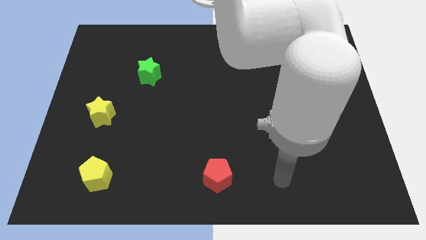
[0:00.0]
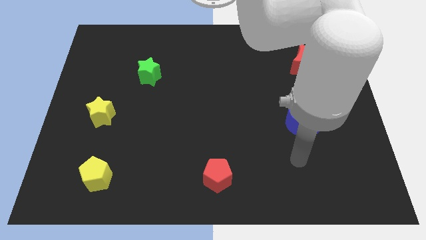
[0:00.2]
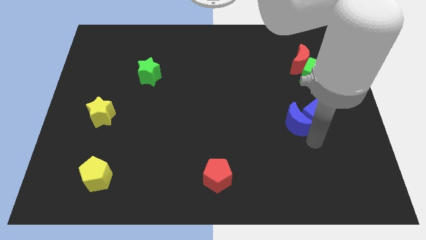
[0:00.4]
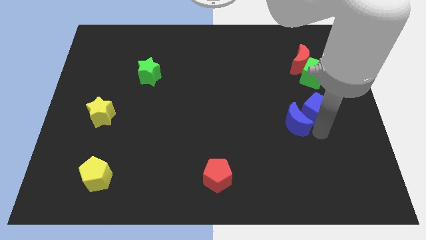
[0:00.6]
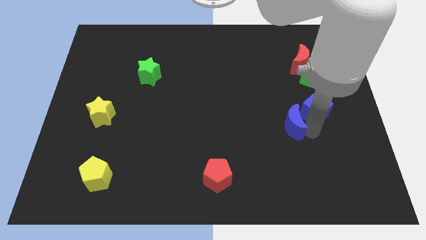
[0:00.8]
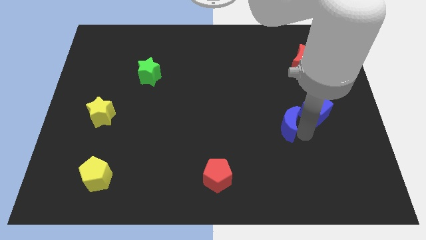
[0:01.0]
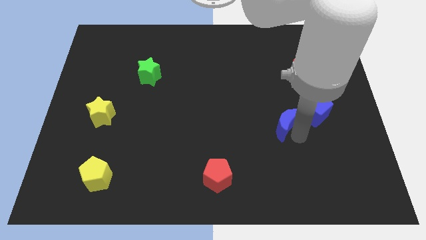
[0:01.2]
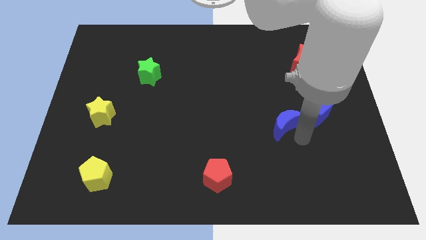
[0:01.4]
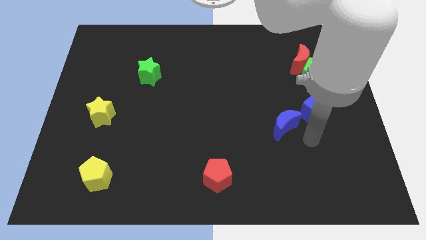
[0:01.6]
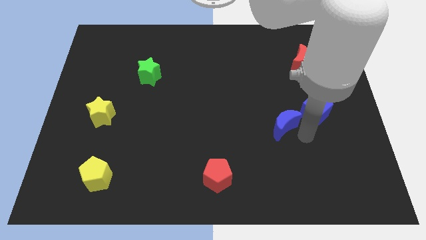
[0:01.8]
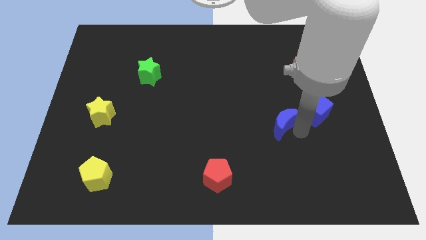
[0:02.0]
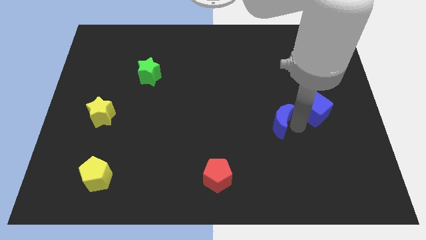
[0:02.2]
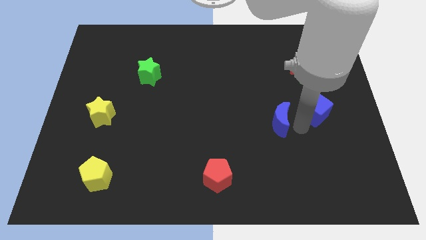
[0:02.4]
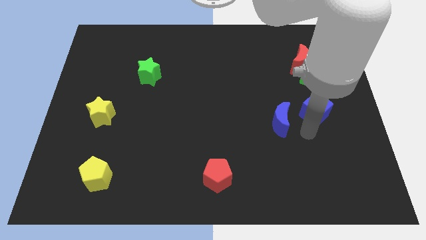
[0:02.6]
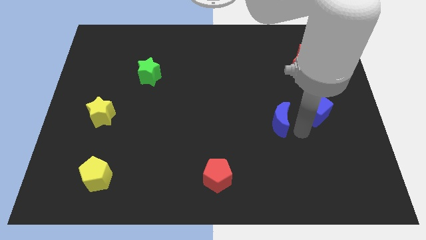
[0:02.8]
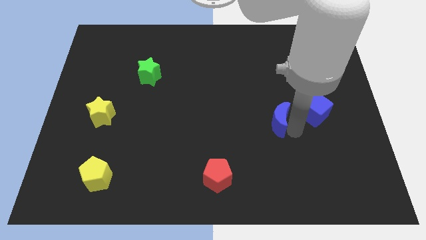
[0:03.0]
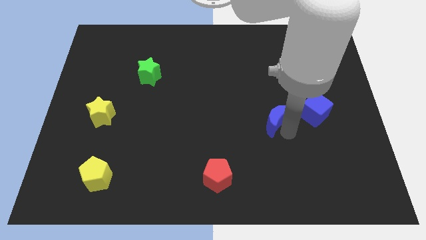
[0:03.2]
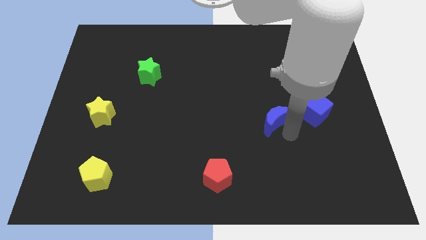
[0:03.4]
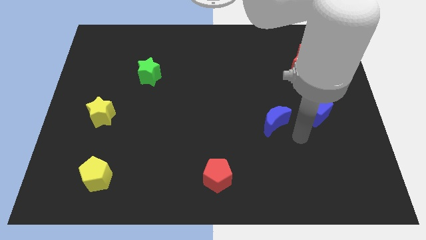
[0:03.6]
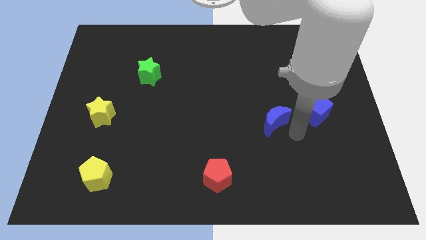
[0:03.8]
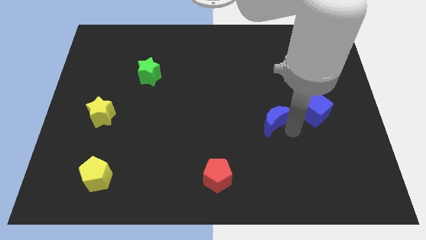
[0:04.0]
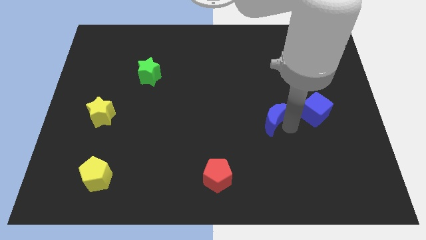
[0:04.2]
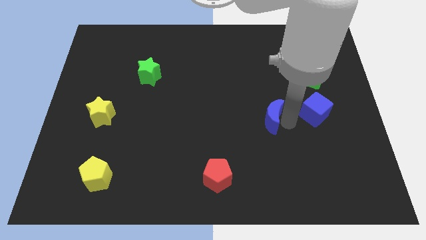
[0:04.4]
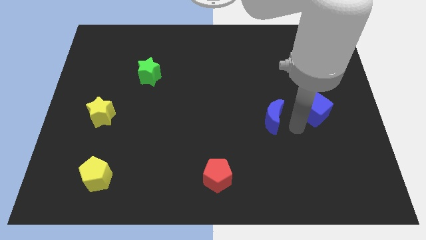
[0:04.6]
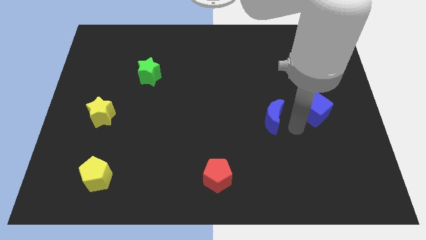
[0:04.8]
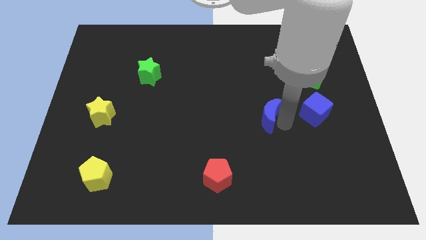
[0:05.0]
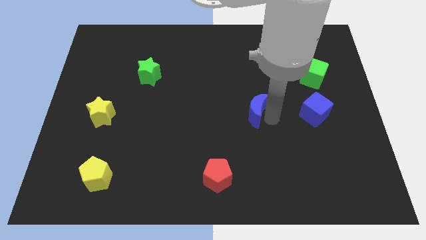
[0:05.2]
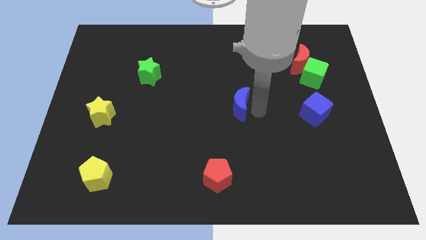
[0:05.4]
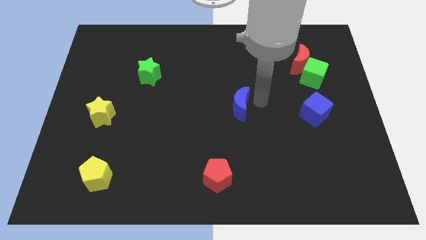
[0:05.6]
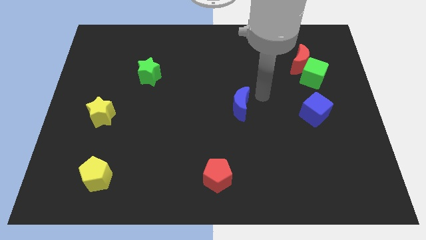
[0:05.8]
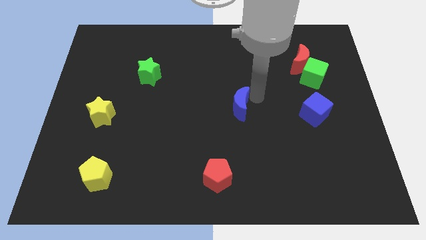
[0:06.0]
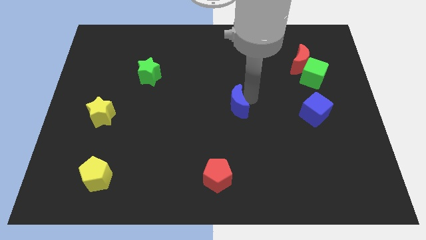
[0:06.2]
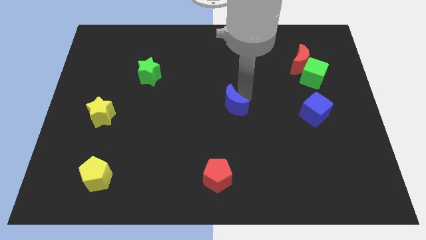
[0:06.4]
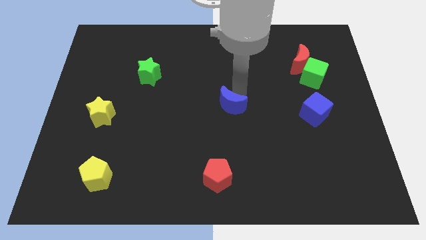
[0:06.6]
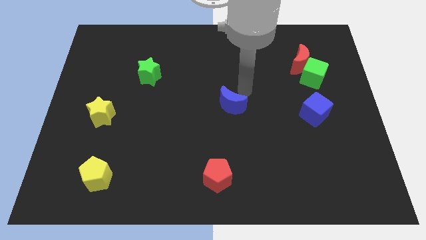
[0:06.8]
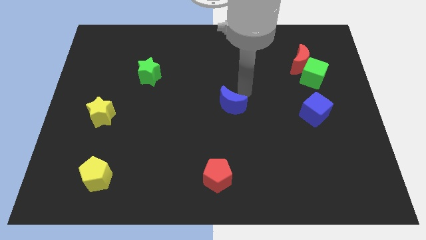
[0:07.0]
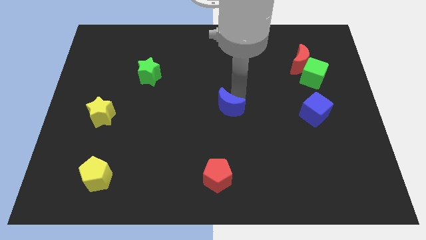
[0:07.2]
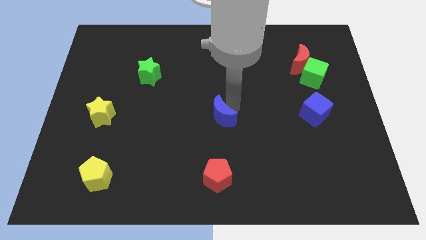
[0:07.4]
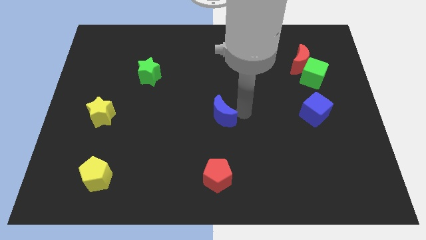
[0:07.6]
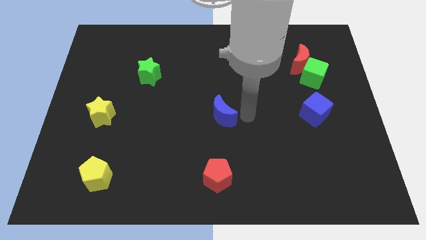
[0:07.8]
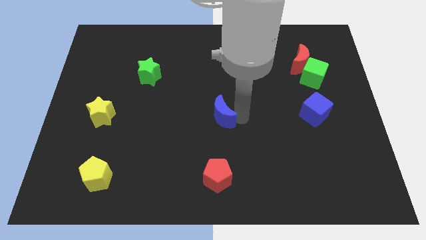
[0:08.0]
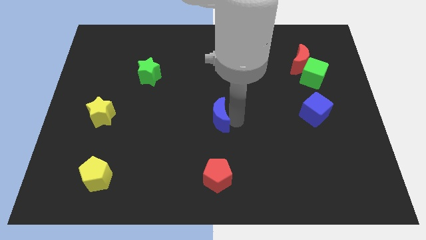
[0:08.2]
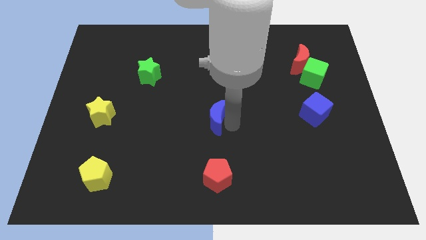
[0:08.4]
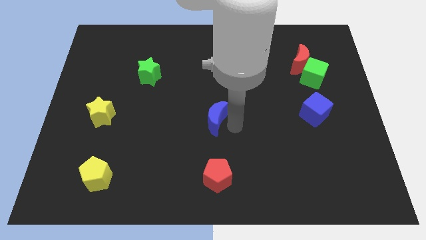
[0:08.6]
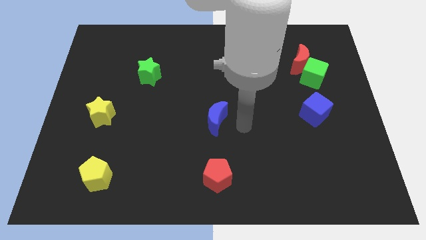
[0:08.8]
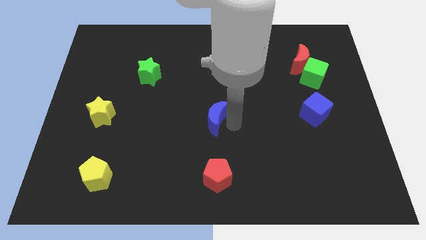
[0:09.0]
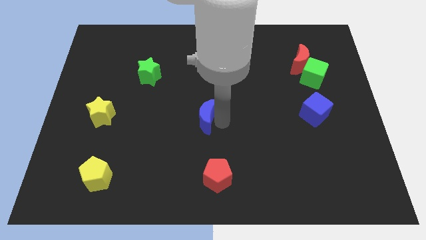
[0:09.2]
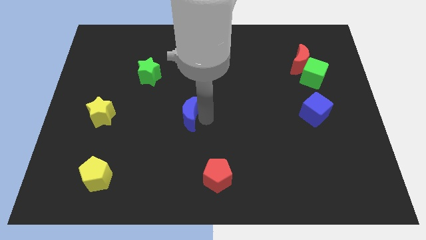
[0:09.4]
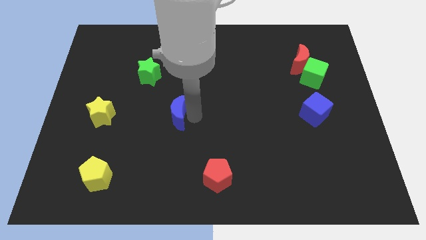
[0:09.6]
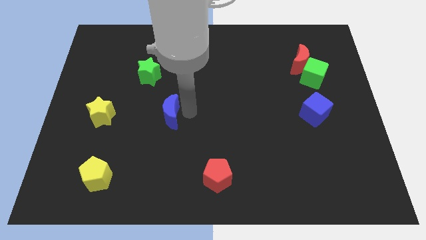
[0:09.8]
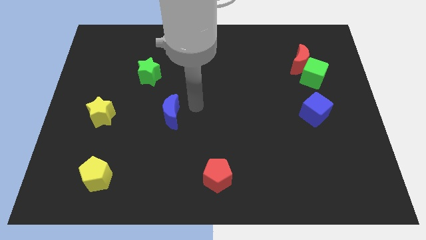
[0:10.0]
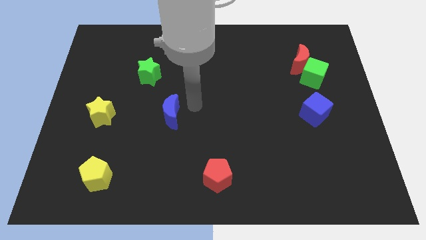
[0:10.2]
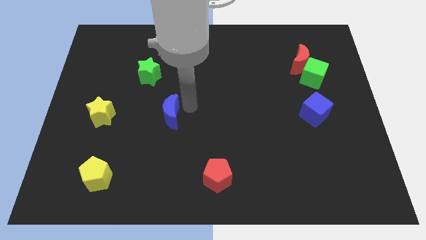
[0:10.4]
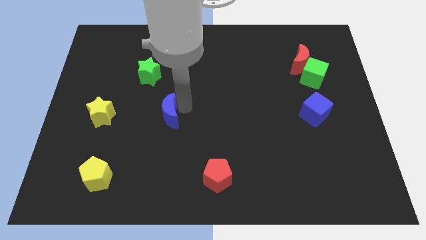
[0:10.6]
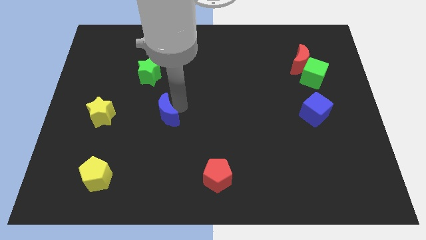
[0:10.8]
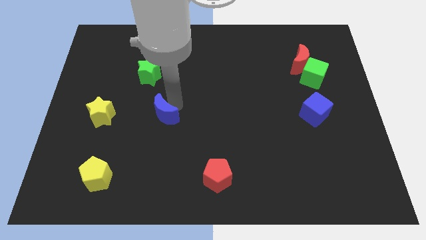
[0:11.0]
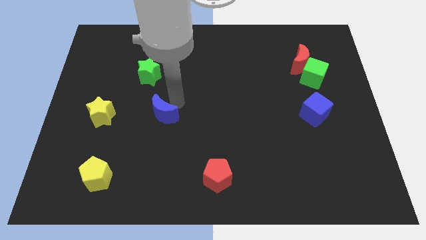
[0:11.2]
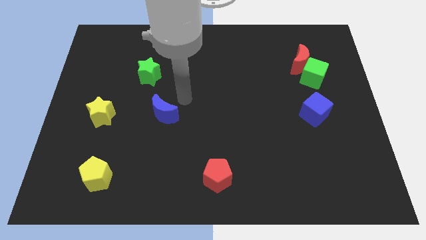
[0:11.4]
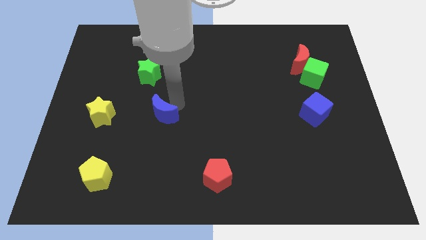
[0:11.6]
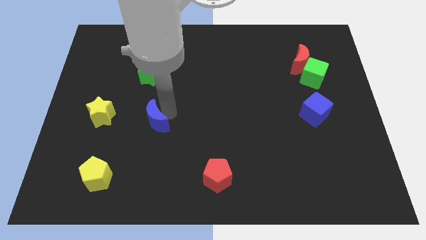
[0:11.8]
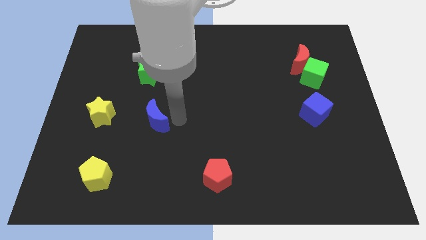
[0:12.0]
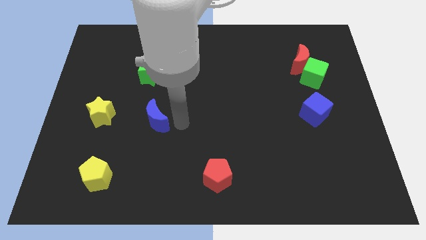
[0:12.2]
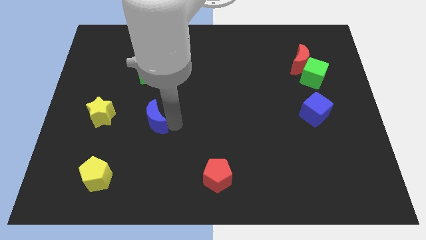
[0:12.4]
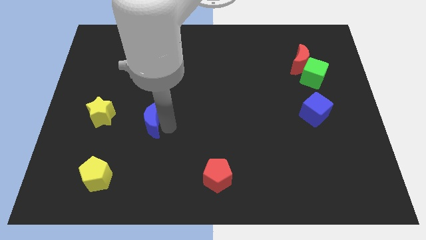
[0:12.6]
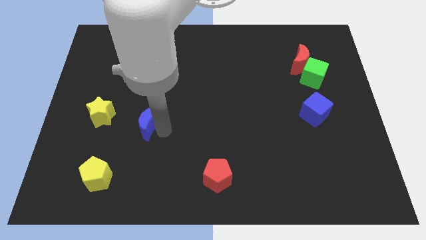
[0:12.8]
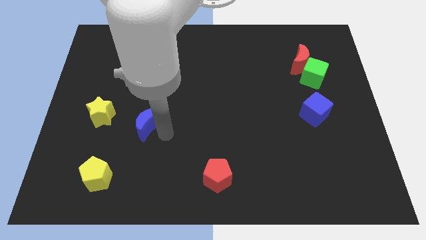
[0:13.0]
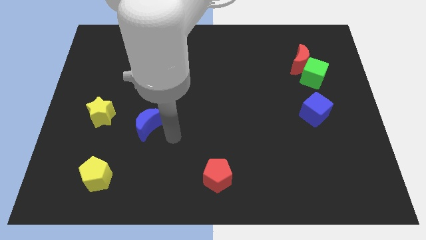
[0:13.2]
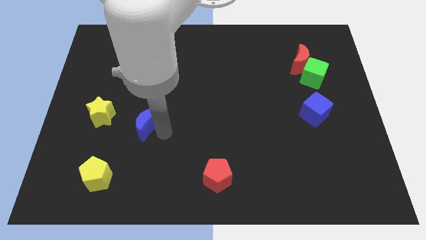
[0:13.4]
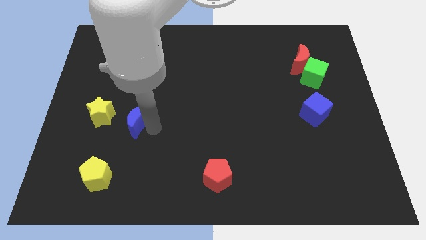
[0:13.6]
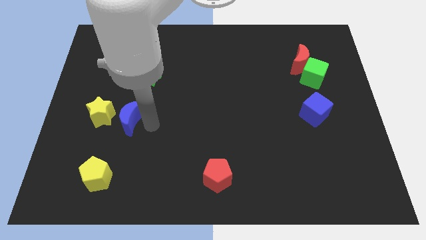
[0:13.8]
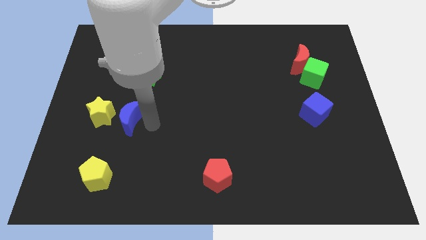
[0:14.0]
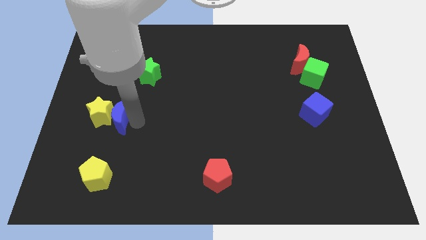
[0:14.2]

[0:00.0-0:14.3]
put the blue moon next to the yellow star
